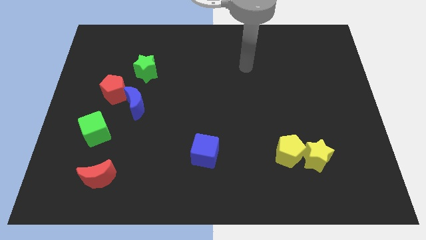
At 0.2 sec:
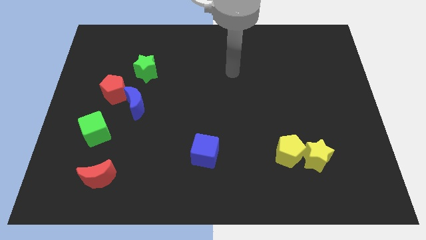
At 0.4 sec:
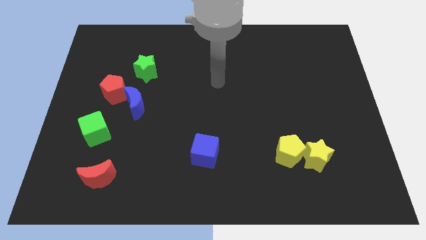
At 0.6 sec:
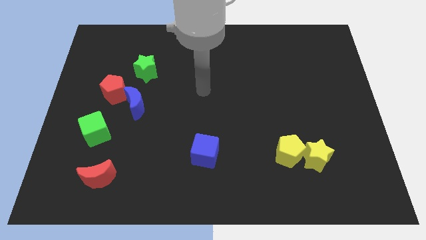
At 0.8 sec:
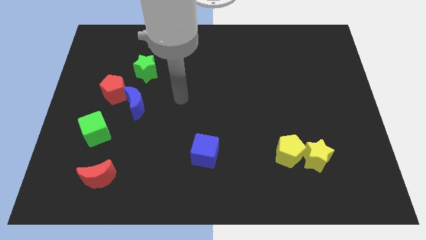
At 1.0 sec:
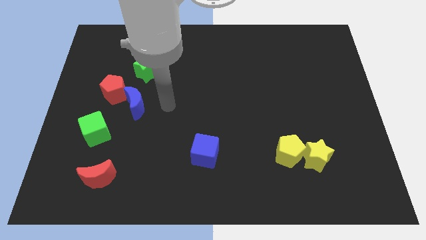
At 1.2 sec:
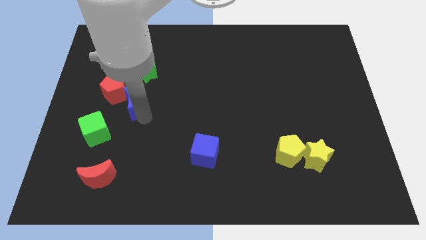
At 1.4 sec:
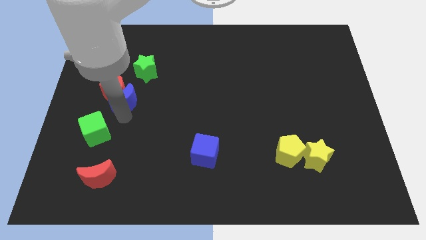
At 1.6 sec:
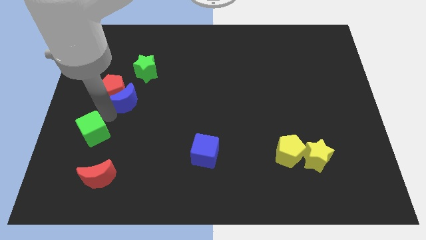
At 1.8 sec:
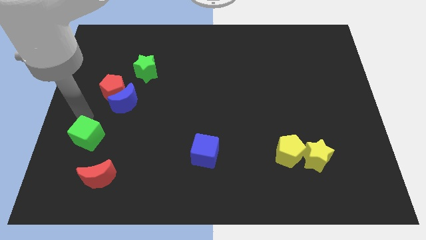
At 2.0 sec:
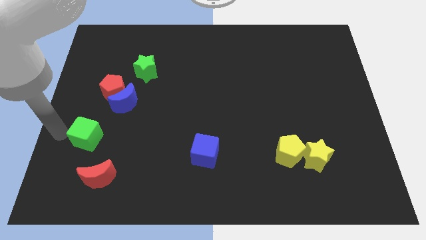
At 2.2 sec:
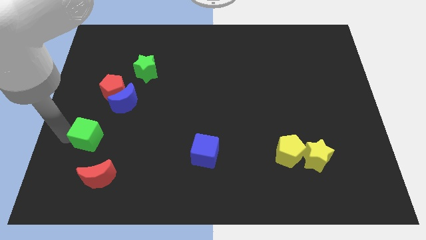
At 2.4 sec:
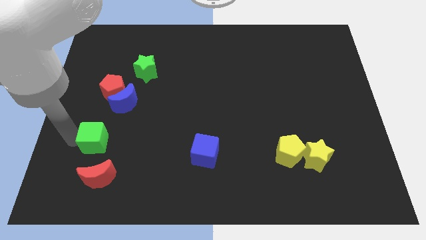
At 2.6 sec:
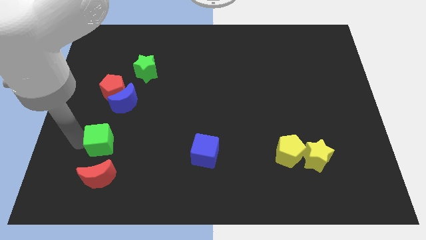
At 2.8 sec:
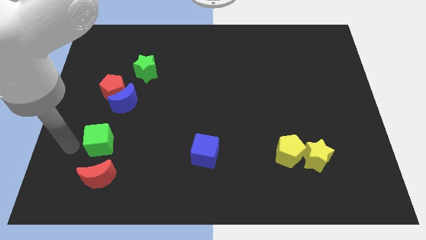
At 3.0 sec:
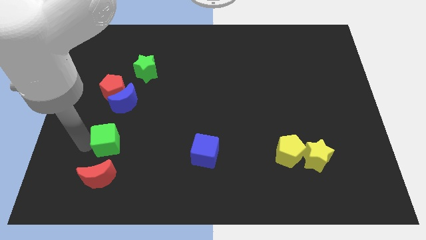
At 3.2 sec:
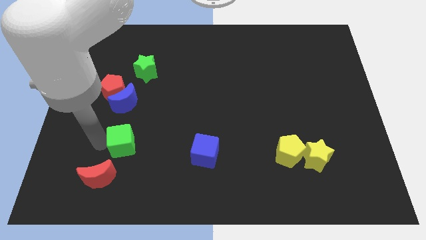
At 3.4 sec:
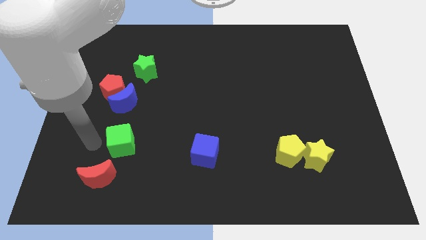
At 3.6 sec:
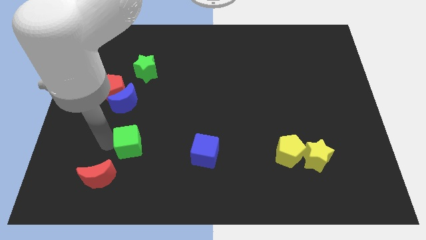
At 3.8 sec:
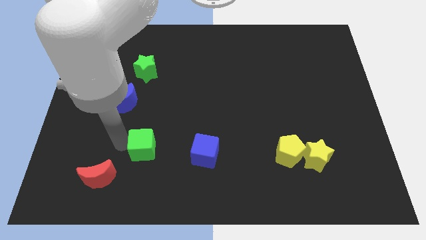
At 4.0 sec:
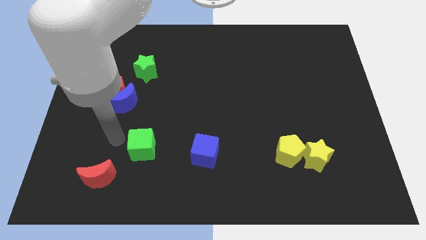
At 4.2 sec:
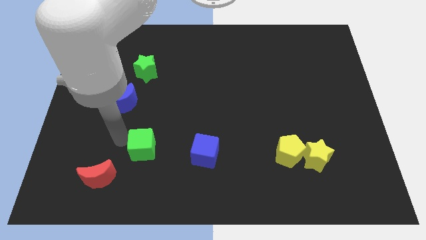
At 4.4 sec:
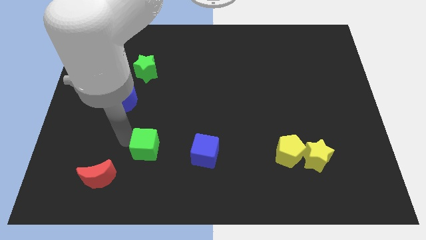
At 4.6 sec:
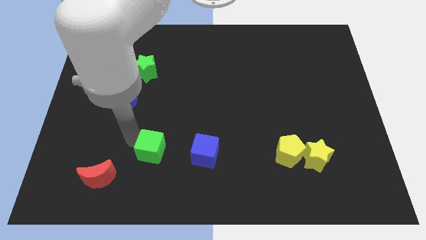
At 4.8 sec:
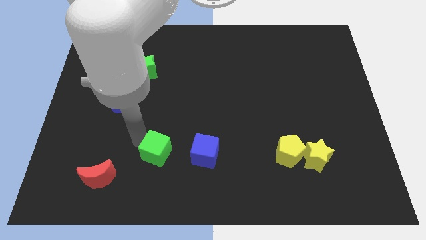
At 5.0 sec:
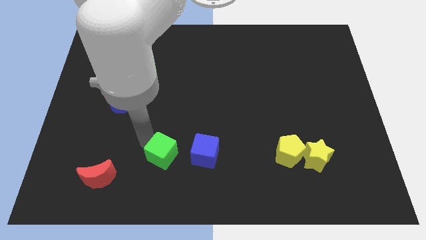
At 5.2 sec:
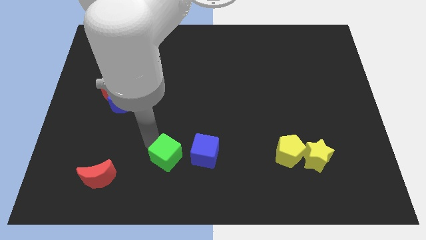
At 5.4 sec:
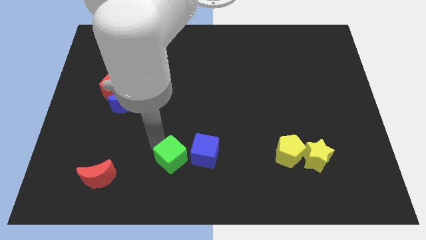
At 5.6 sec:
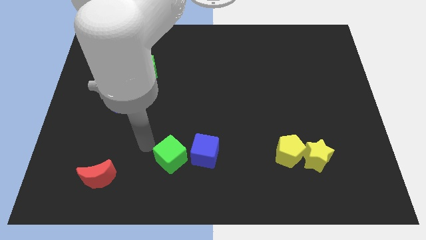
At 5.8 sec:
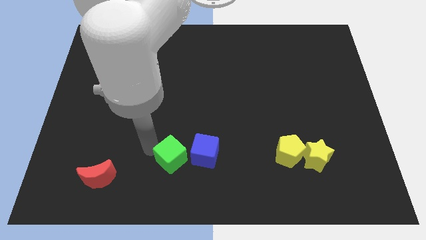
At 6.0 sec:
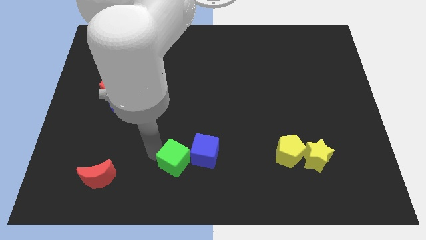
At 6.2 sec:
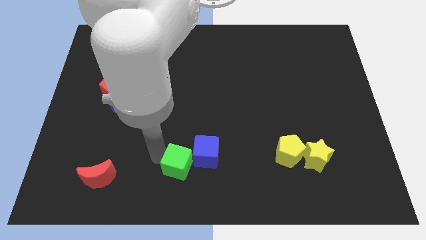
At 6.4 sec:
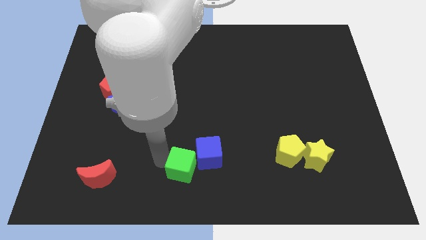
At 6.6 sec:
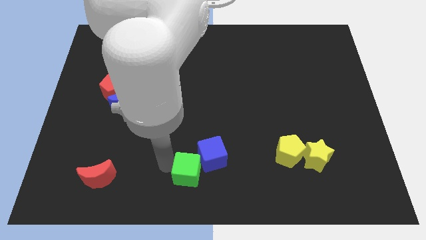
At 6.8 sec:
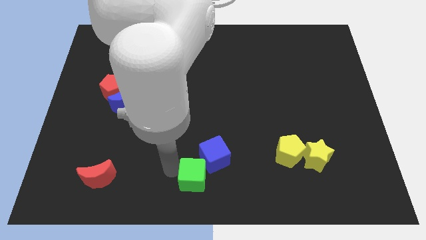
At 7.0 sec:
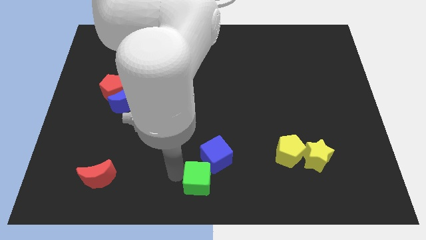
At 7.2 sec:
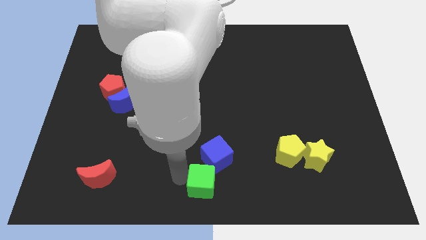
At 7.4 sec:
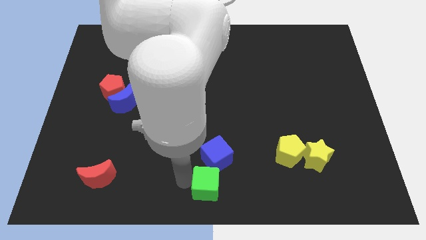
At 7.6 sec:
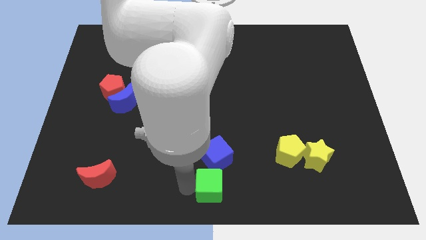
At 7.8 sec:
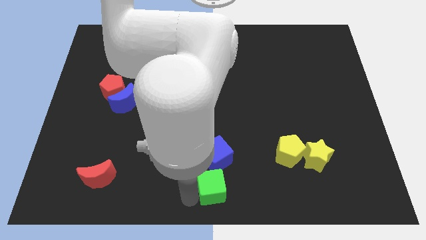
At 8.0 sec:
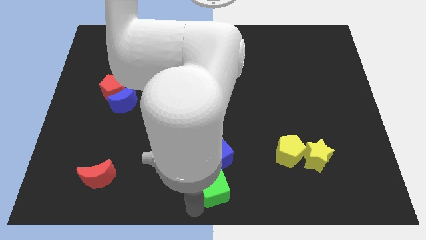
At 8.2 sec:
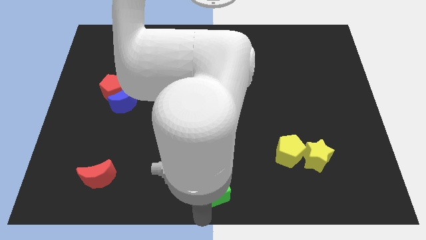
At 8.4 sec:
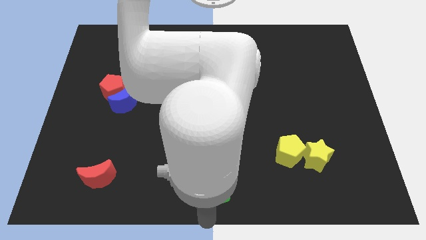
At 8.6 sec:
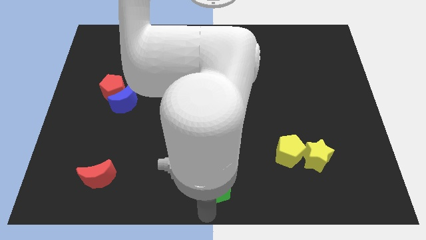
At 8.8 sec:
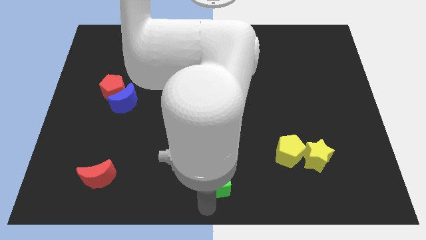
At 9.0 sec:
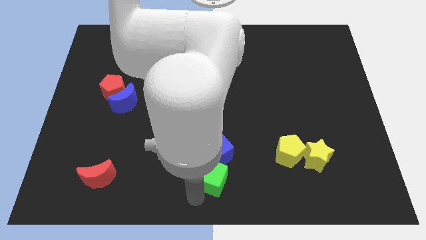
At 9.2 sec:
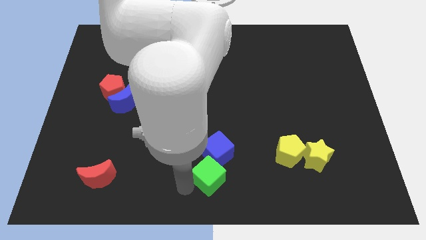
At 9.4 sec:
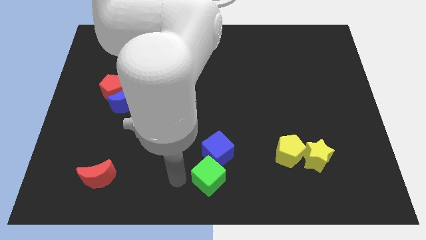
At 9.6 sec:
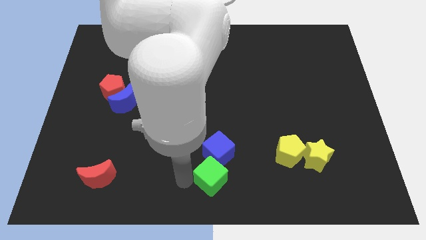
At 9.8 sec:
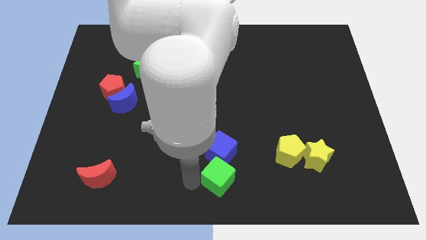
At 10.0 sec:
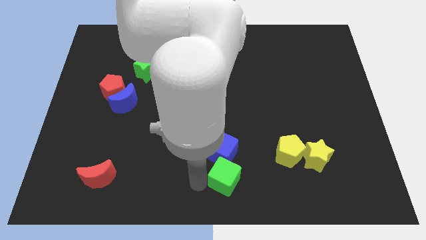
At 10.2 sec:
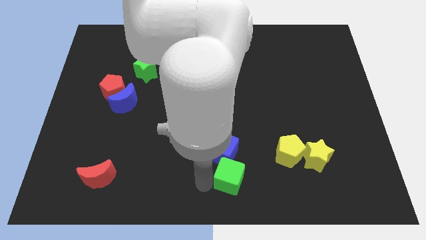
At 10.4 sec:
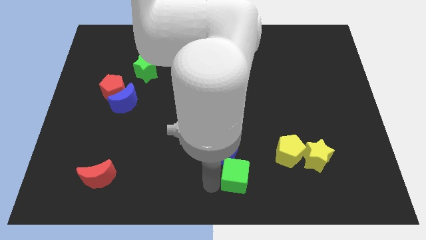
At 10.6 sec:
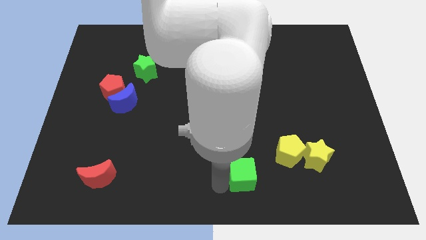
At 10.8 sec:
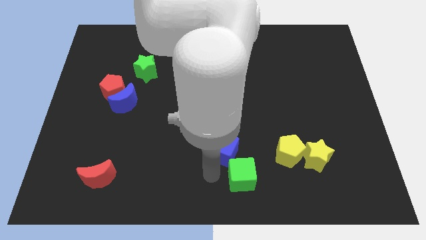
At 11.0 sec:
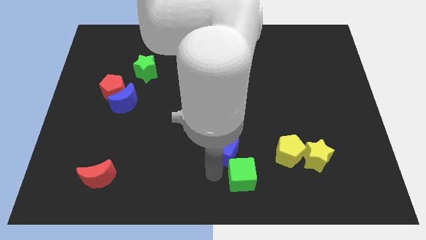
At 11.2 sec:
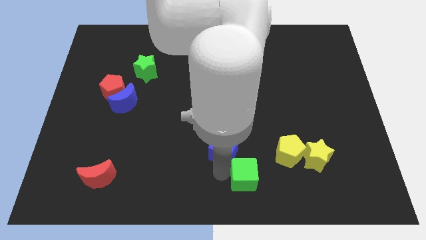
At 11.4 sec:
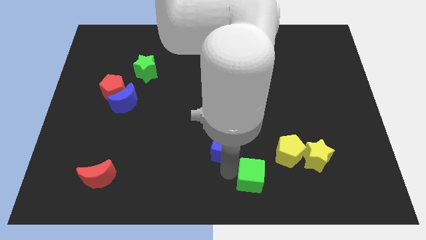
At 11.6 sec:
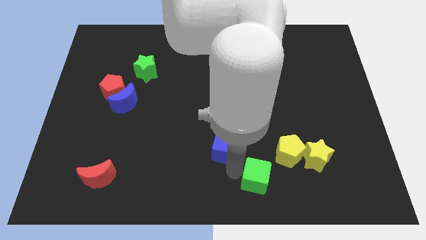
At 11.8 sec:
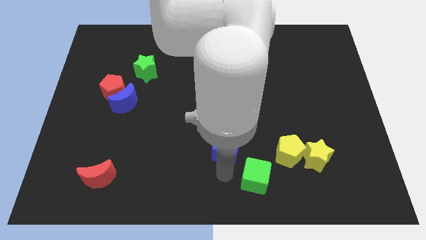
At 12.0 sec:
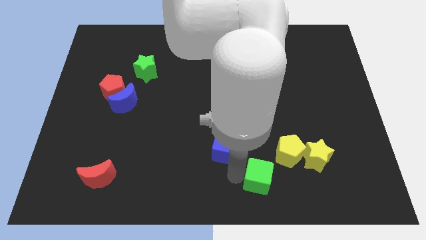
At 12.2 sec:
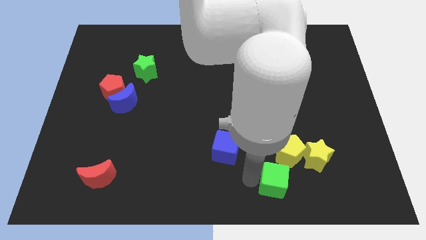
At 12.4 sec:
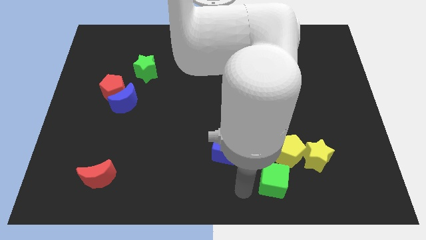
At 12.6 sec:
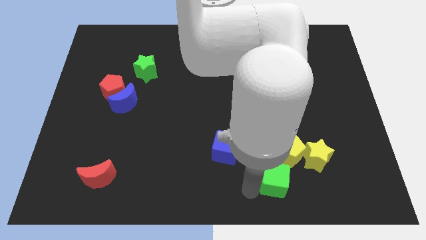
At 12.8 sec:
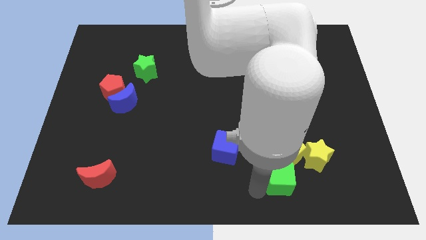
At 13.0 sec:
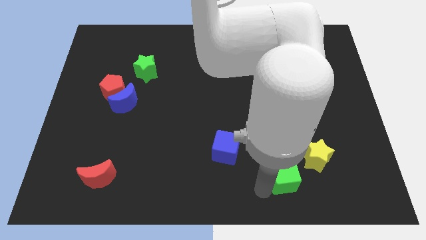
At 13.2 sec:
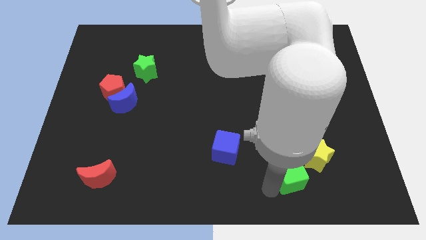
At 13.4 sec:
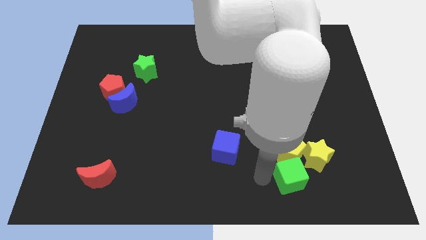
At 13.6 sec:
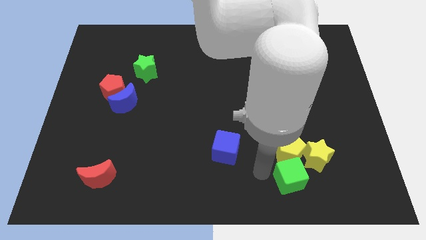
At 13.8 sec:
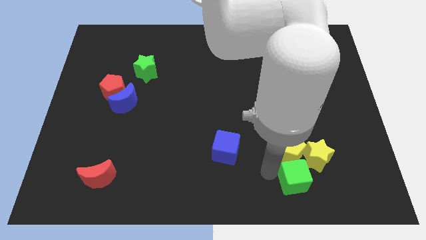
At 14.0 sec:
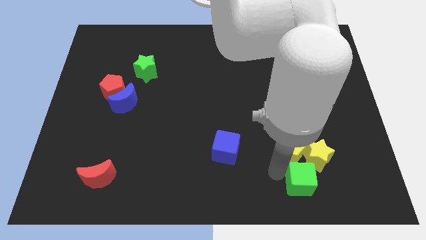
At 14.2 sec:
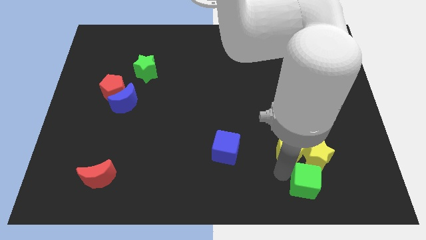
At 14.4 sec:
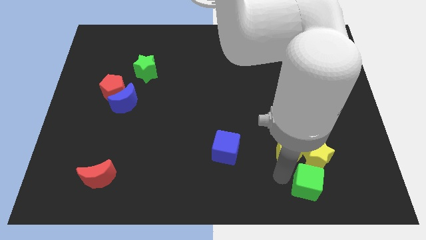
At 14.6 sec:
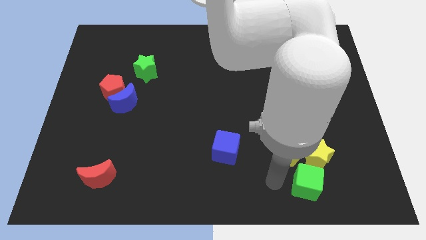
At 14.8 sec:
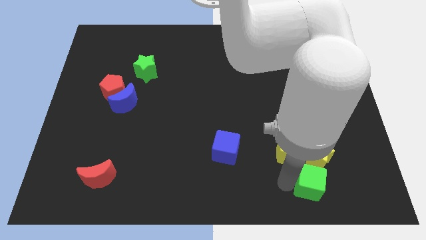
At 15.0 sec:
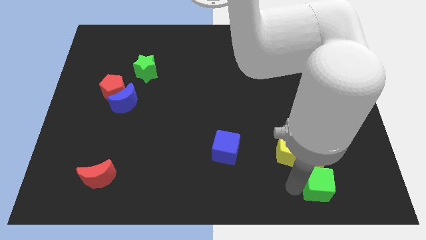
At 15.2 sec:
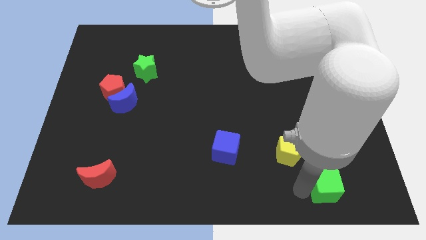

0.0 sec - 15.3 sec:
put the green cube to the bottom right side of the yellow star
